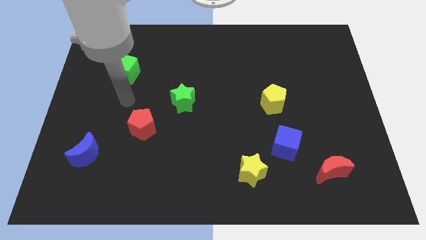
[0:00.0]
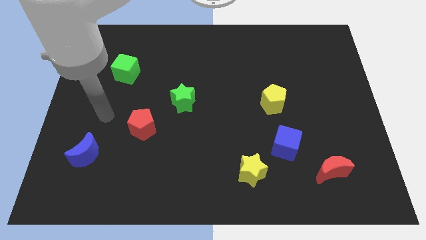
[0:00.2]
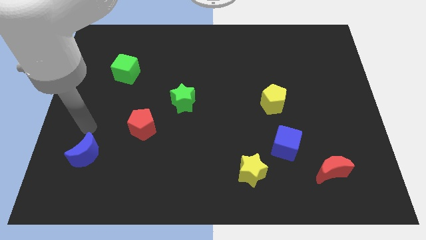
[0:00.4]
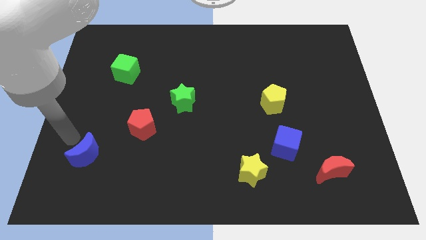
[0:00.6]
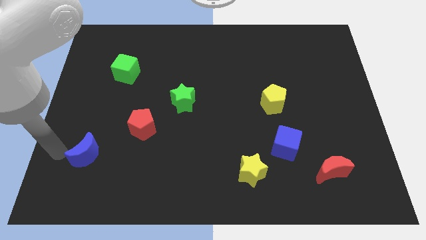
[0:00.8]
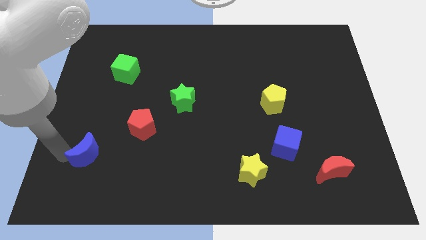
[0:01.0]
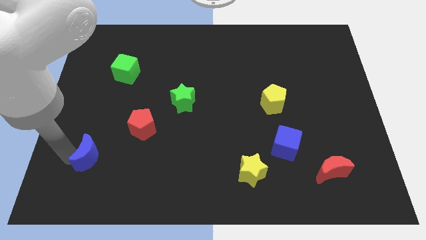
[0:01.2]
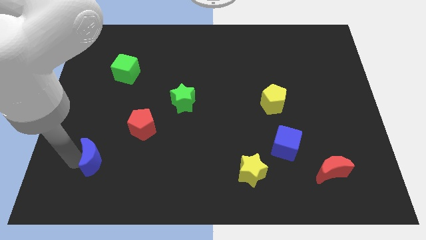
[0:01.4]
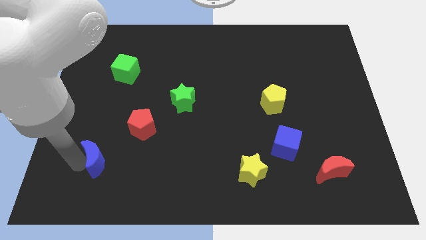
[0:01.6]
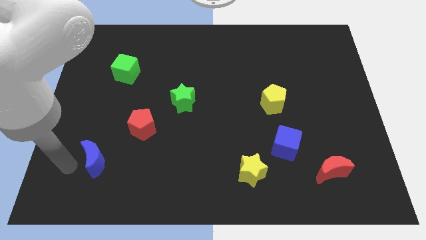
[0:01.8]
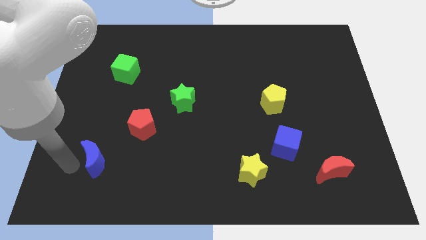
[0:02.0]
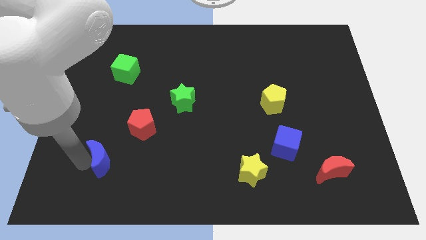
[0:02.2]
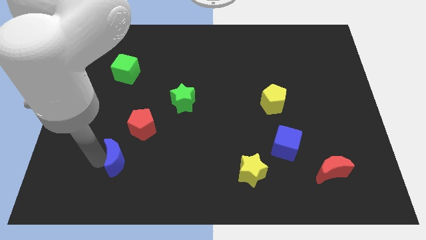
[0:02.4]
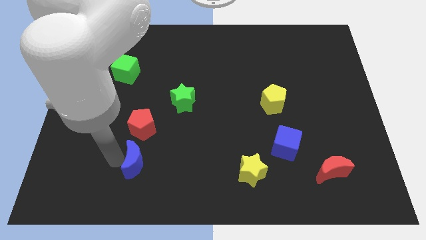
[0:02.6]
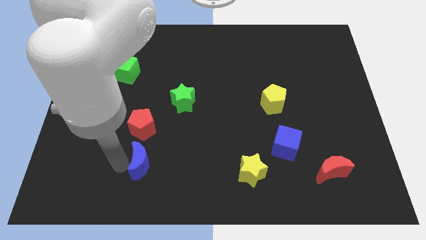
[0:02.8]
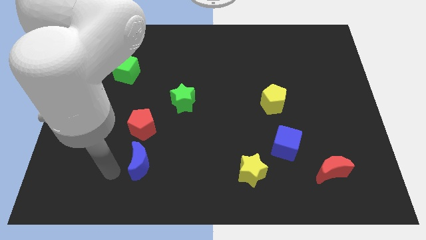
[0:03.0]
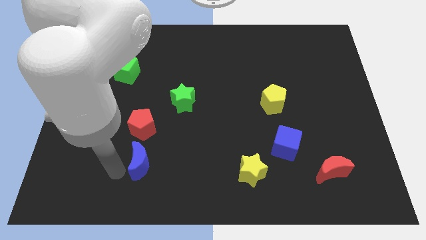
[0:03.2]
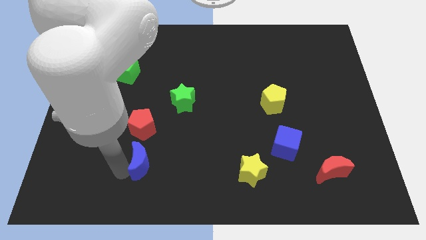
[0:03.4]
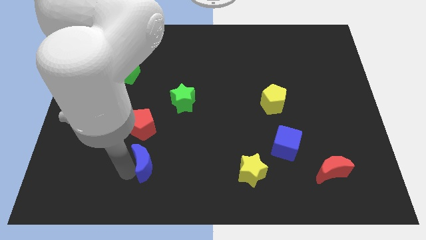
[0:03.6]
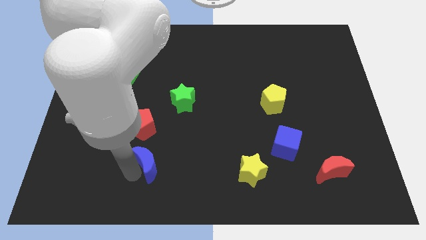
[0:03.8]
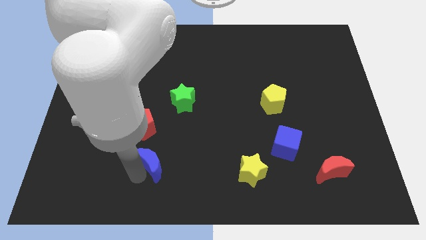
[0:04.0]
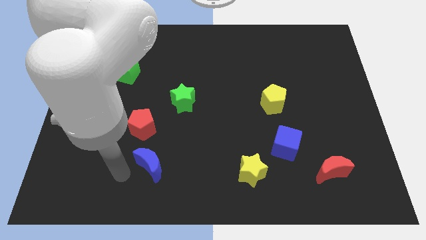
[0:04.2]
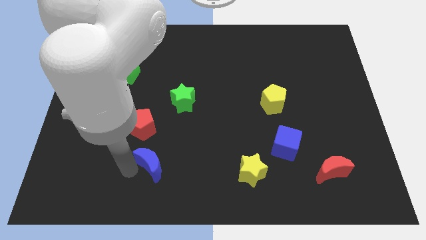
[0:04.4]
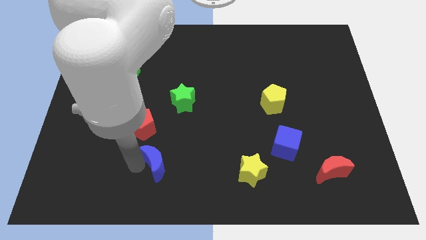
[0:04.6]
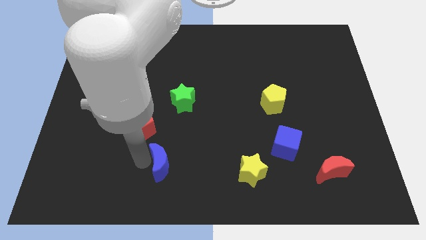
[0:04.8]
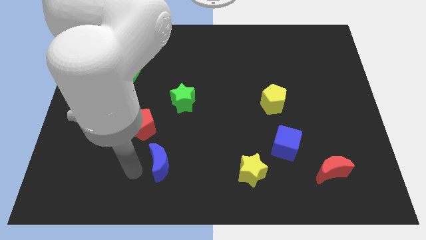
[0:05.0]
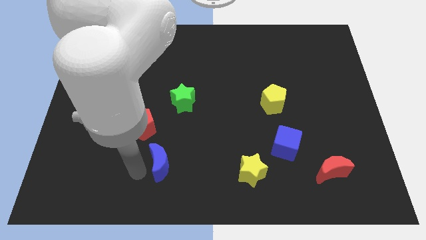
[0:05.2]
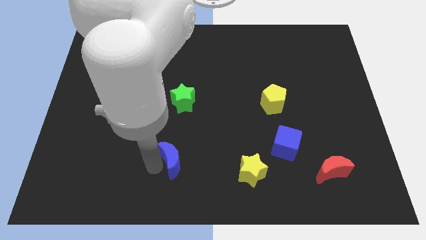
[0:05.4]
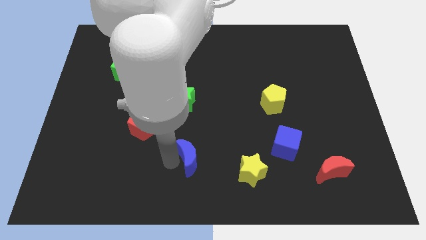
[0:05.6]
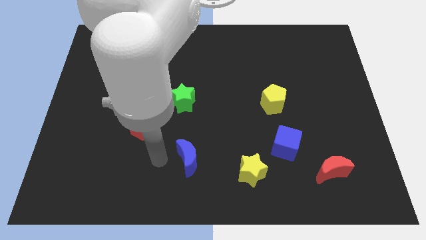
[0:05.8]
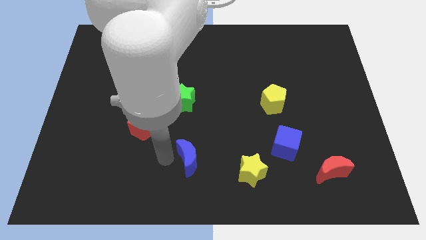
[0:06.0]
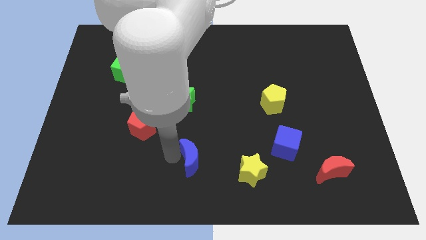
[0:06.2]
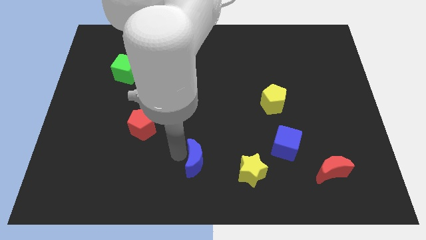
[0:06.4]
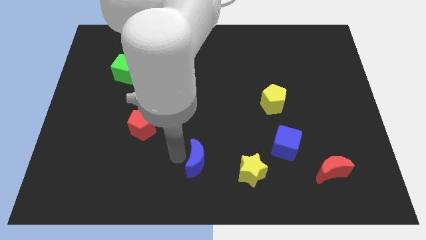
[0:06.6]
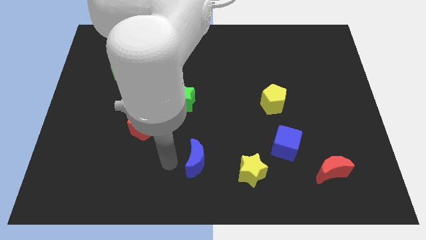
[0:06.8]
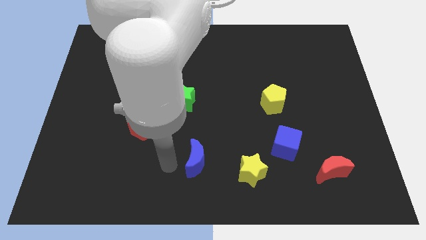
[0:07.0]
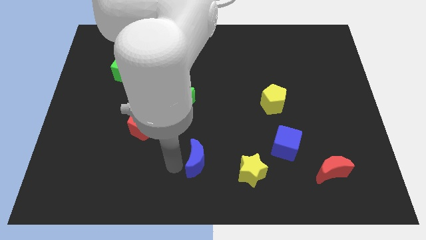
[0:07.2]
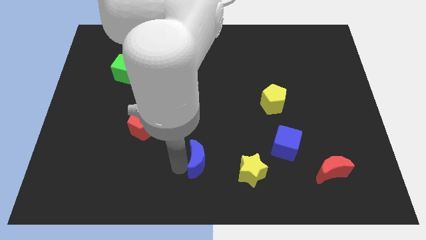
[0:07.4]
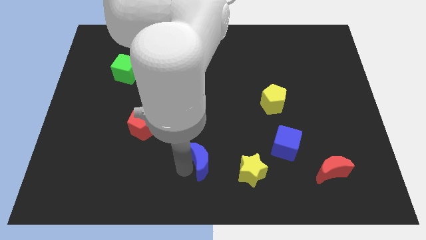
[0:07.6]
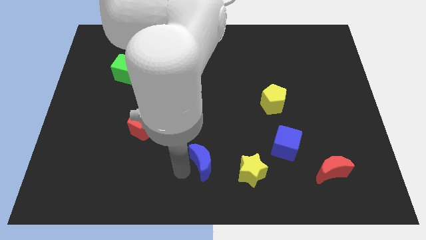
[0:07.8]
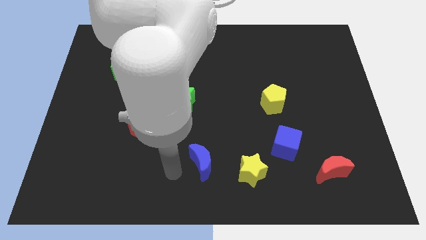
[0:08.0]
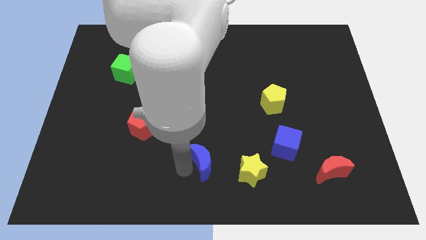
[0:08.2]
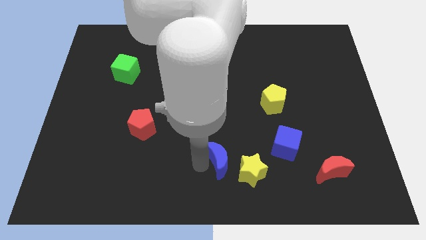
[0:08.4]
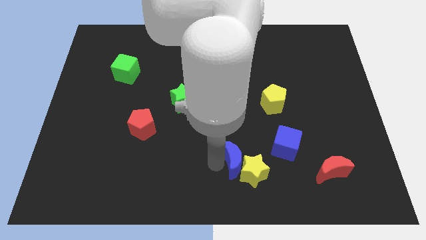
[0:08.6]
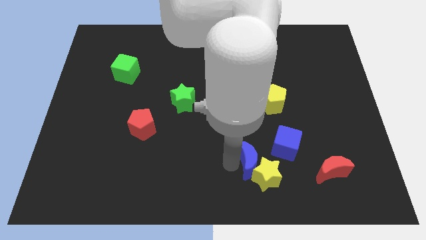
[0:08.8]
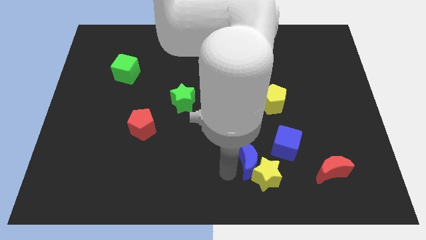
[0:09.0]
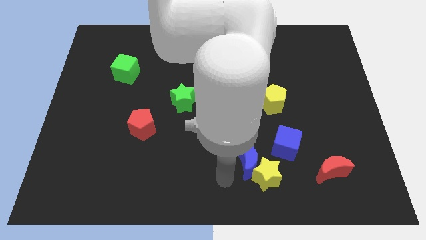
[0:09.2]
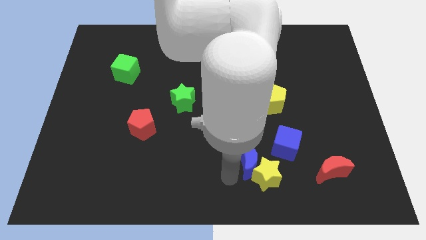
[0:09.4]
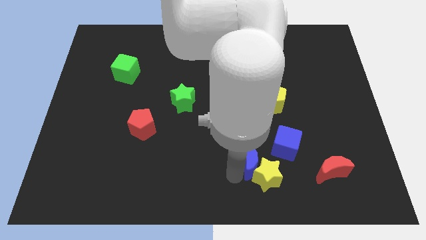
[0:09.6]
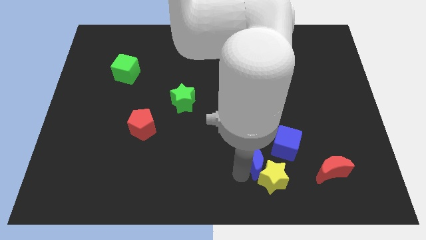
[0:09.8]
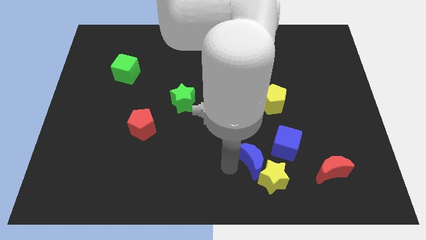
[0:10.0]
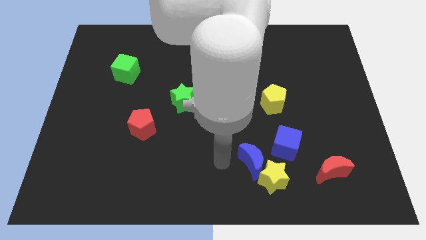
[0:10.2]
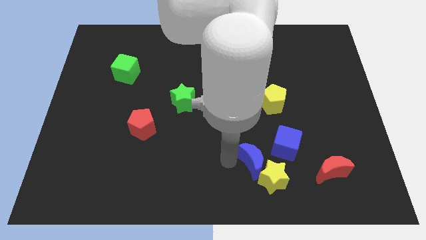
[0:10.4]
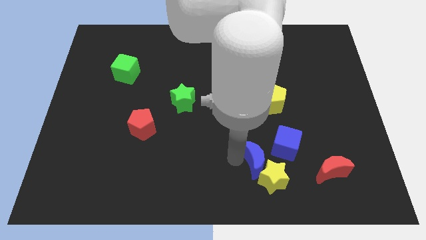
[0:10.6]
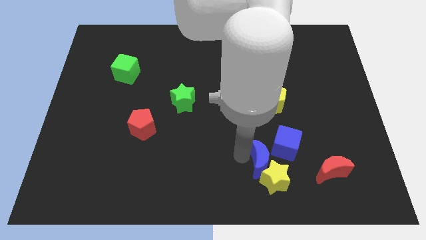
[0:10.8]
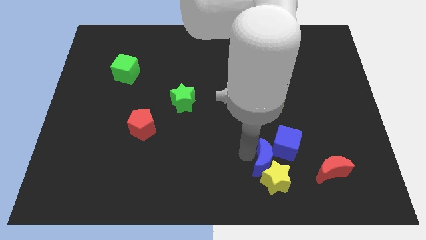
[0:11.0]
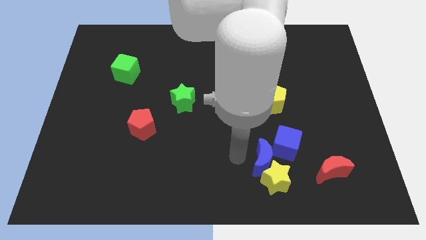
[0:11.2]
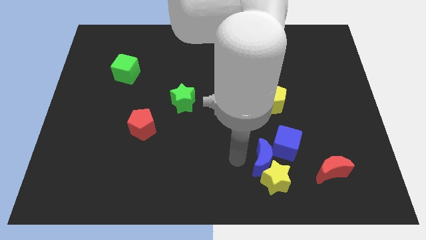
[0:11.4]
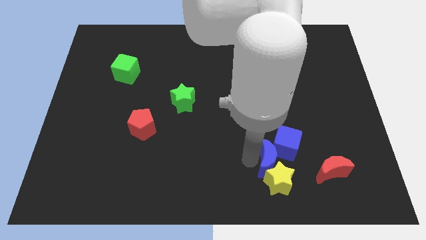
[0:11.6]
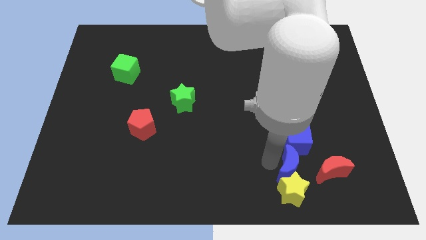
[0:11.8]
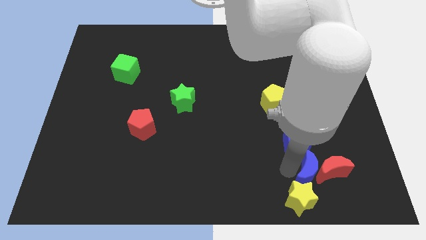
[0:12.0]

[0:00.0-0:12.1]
slide the blue moon next to the red moon

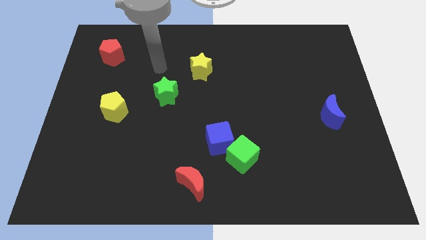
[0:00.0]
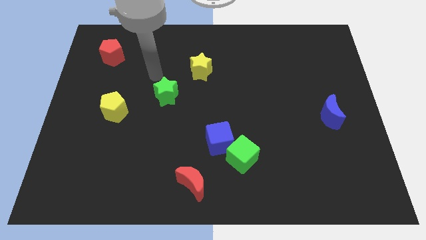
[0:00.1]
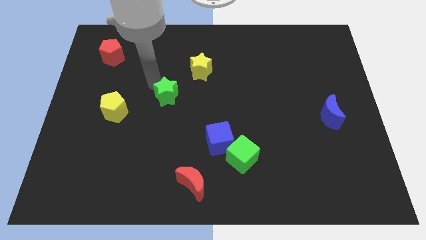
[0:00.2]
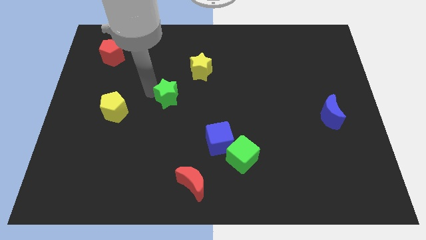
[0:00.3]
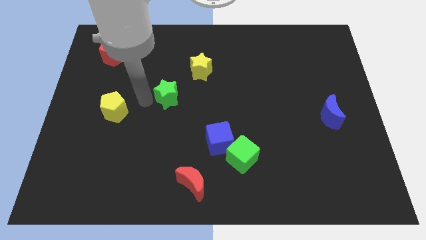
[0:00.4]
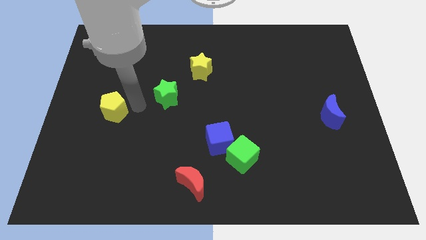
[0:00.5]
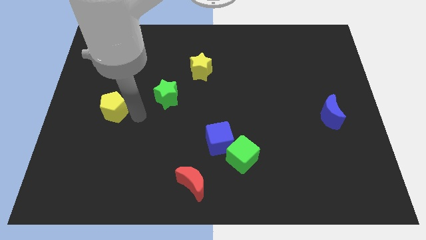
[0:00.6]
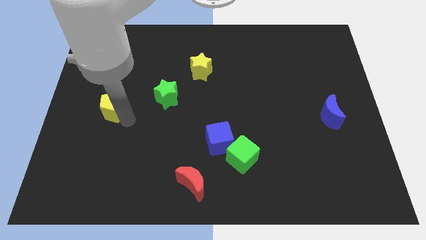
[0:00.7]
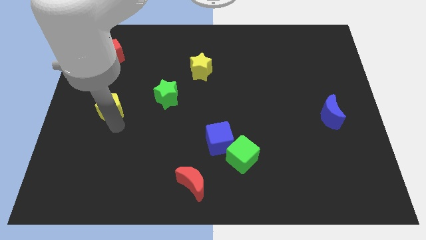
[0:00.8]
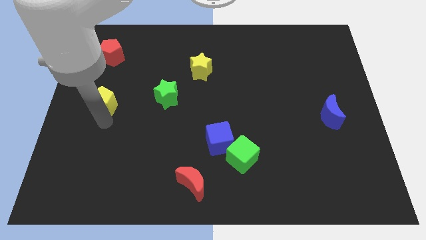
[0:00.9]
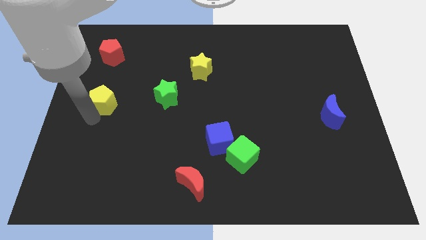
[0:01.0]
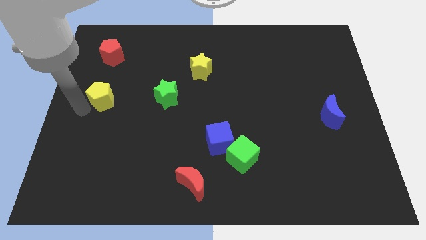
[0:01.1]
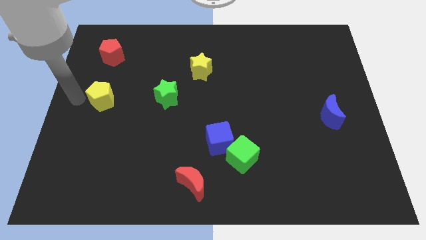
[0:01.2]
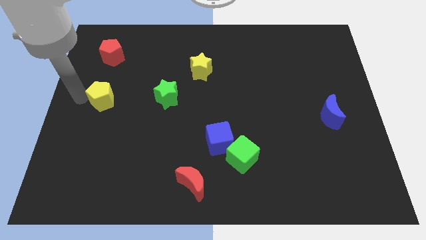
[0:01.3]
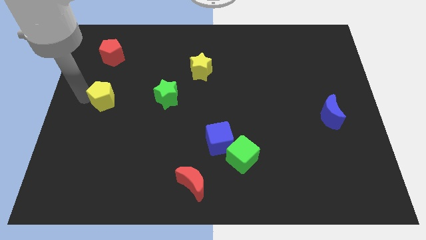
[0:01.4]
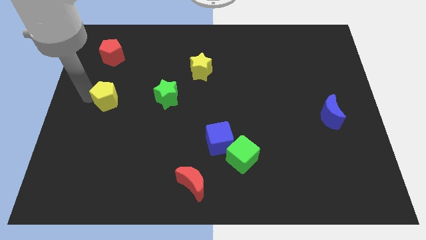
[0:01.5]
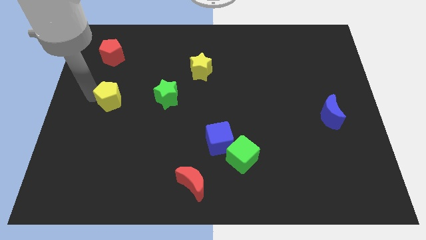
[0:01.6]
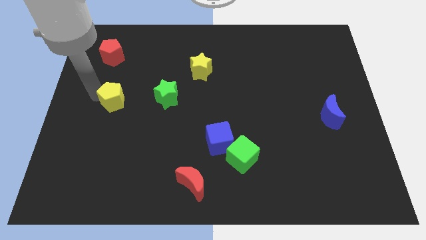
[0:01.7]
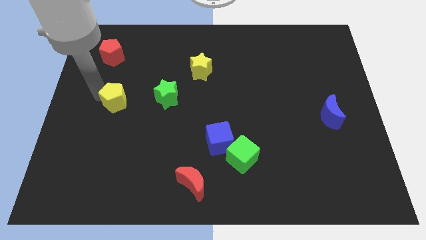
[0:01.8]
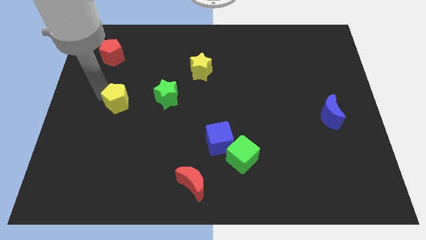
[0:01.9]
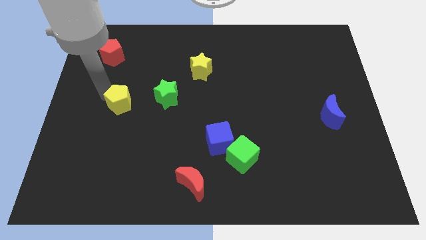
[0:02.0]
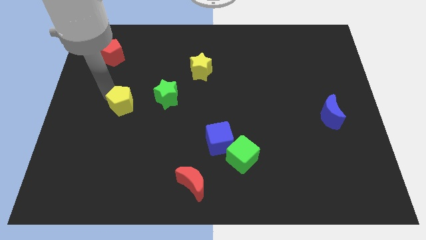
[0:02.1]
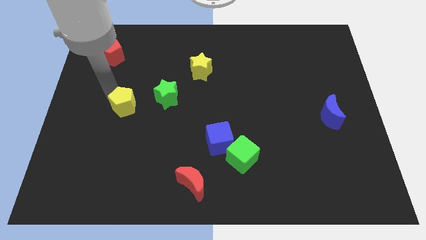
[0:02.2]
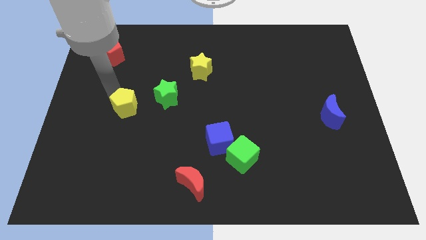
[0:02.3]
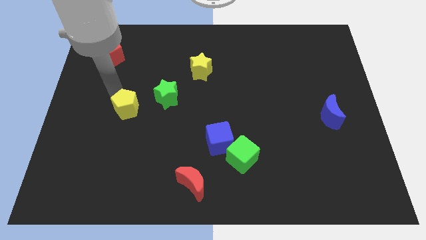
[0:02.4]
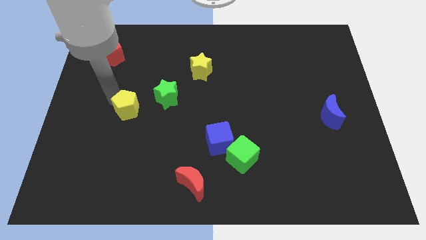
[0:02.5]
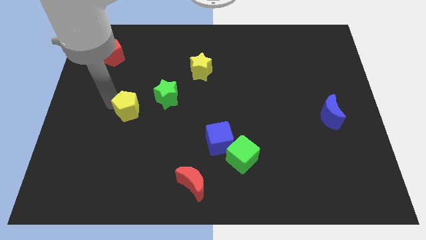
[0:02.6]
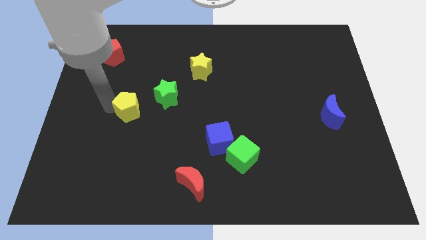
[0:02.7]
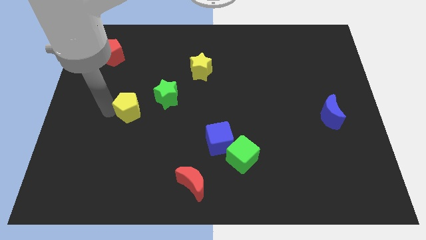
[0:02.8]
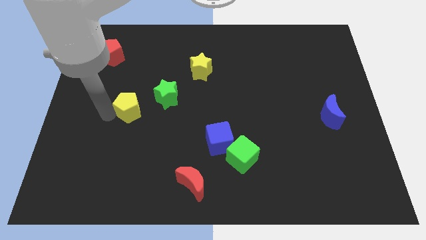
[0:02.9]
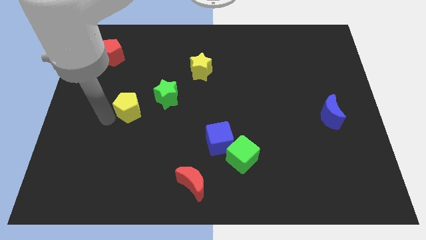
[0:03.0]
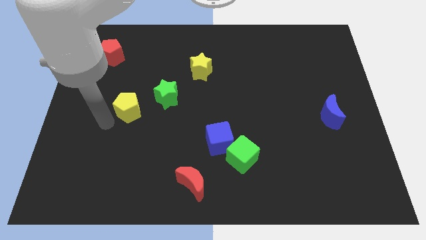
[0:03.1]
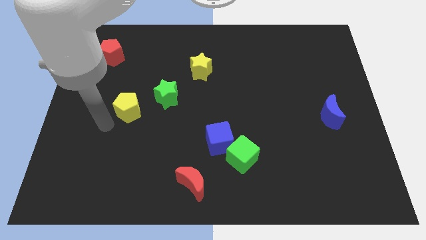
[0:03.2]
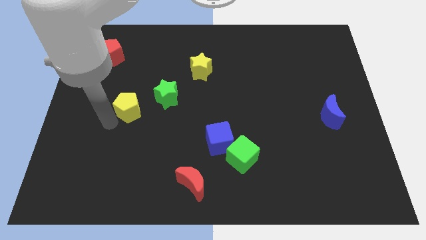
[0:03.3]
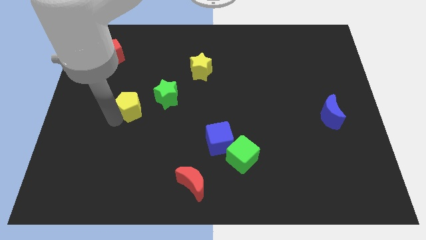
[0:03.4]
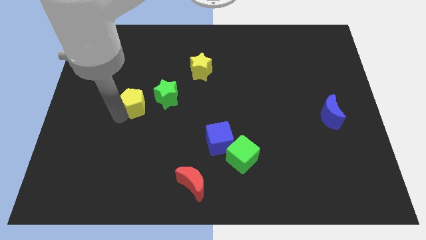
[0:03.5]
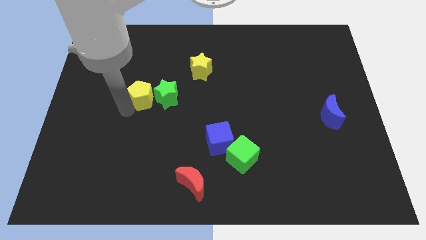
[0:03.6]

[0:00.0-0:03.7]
push the yellow pentagon towards the green star
